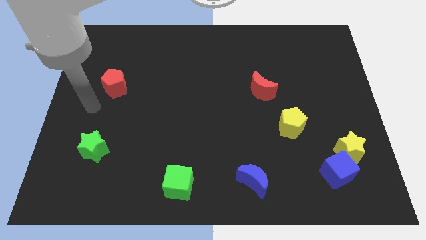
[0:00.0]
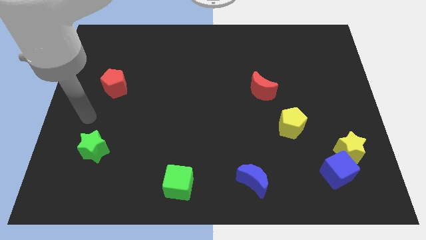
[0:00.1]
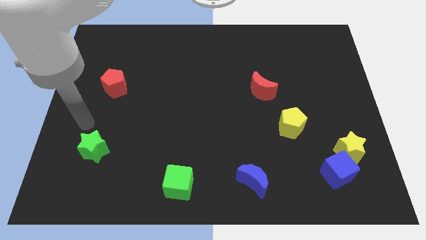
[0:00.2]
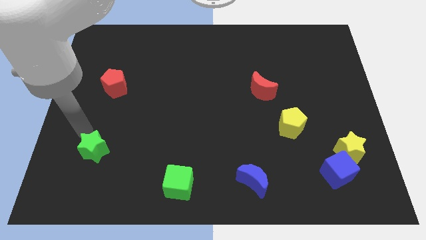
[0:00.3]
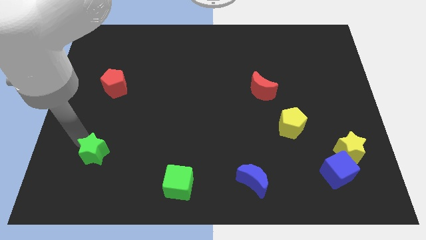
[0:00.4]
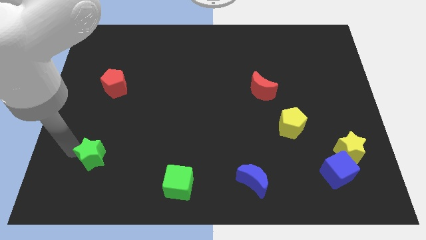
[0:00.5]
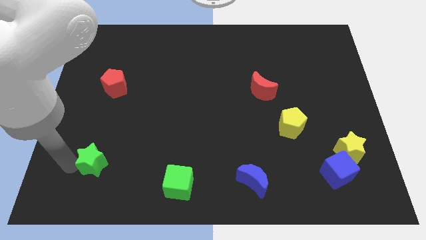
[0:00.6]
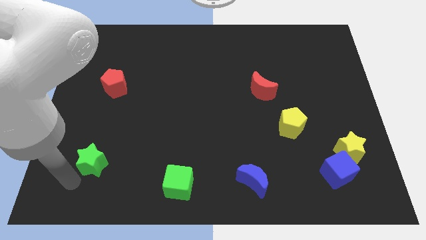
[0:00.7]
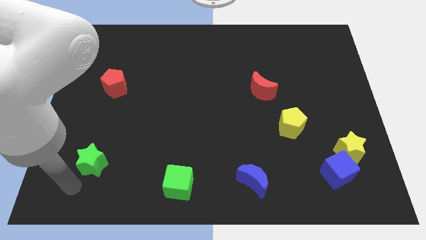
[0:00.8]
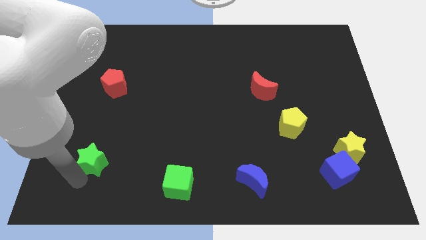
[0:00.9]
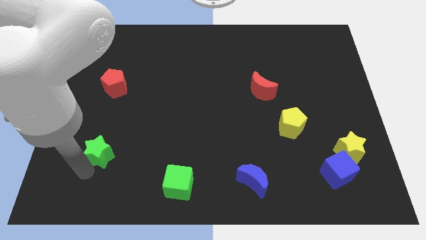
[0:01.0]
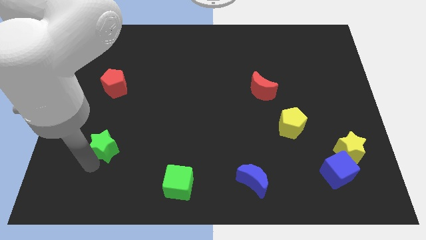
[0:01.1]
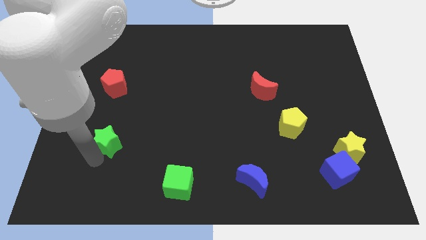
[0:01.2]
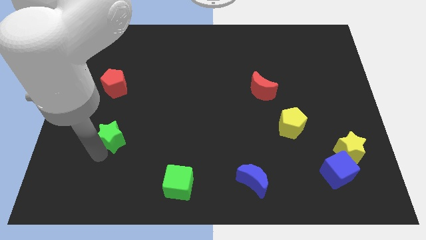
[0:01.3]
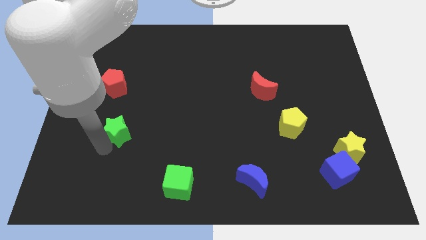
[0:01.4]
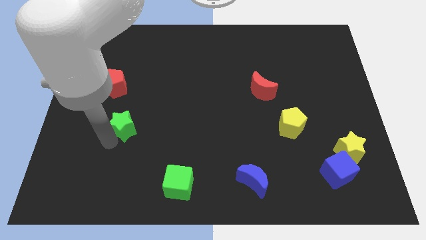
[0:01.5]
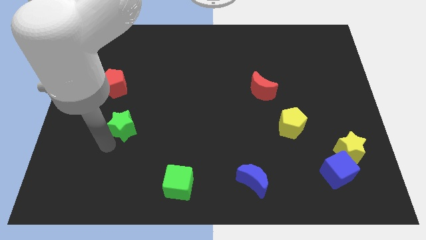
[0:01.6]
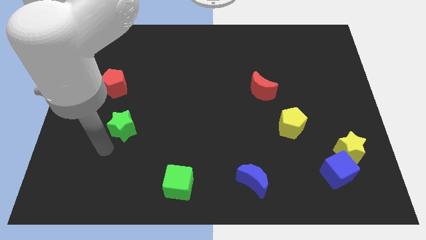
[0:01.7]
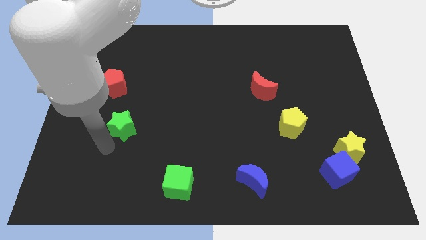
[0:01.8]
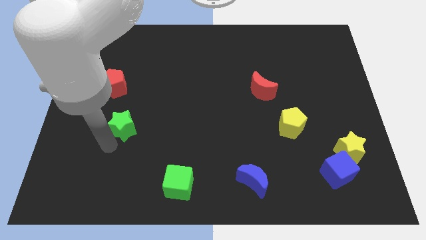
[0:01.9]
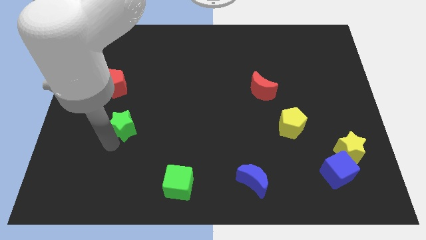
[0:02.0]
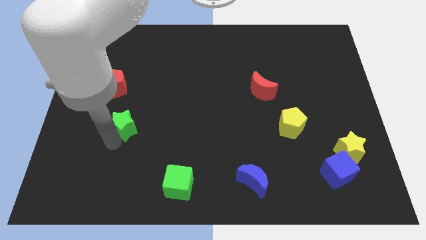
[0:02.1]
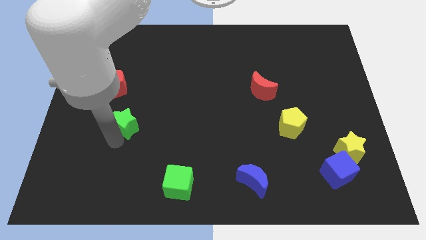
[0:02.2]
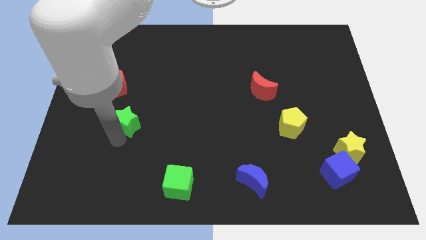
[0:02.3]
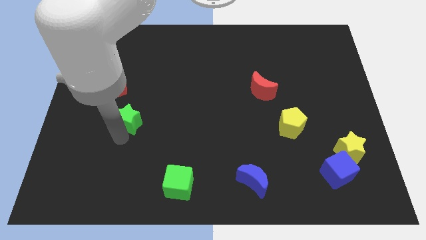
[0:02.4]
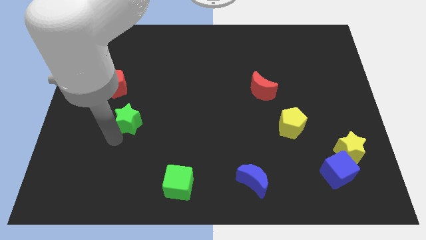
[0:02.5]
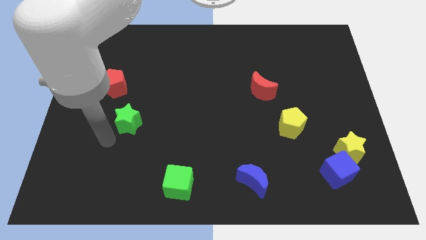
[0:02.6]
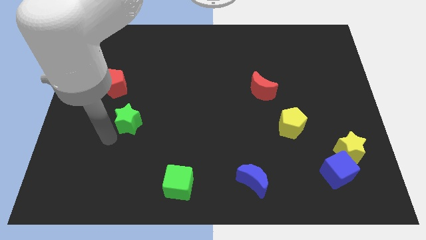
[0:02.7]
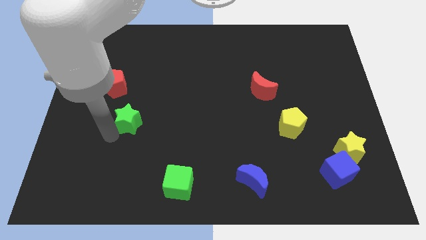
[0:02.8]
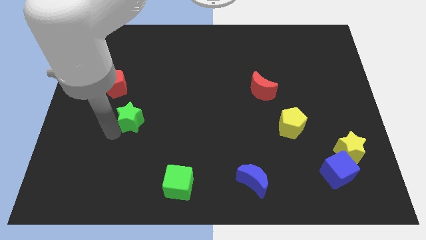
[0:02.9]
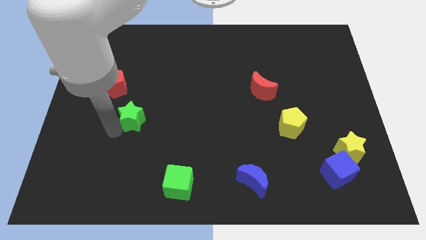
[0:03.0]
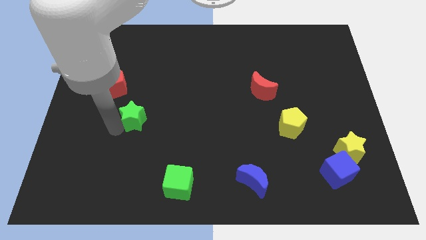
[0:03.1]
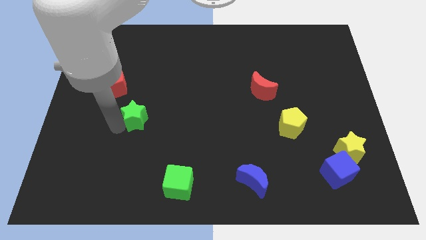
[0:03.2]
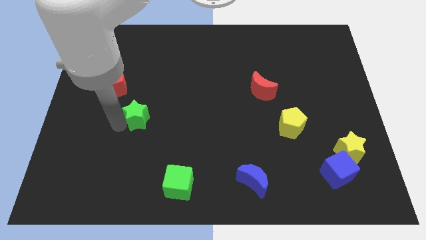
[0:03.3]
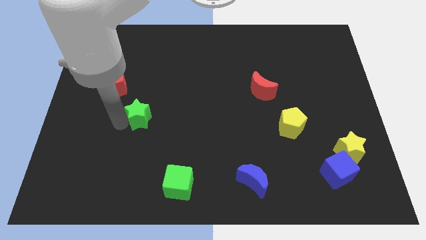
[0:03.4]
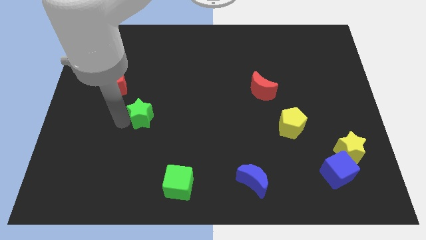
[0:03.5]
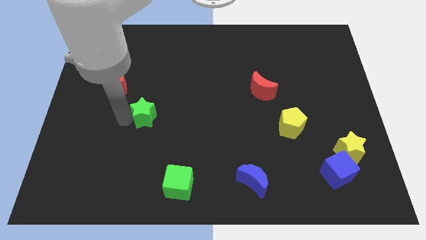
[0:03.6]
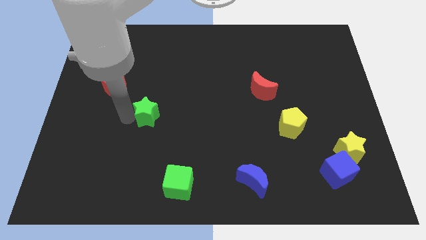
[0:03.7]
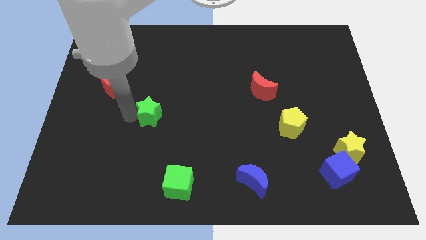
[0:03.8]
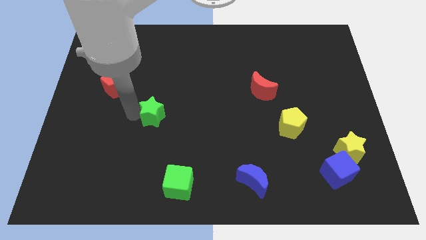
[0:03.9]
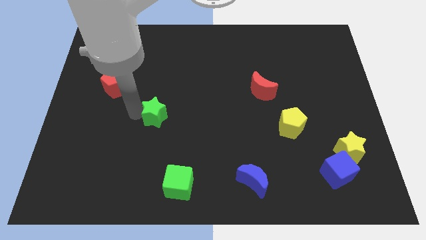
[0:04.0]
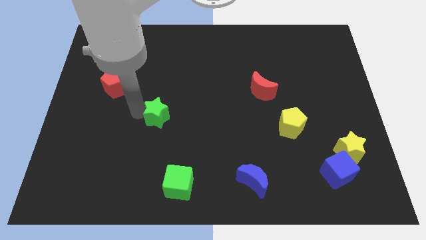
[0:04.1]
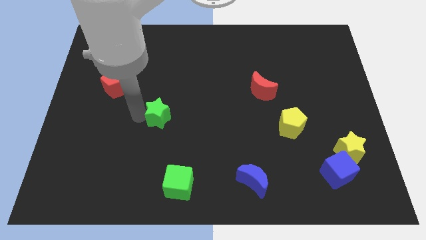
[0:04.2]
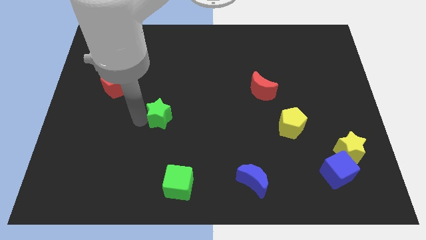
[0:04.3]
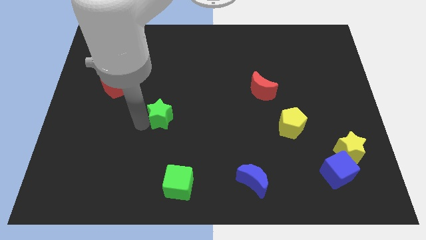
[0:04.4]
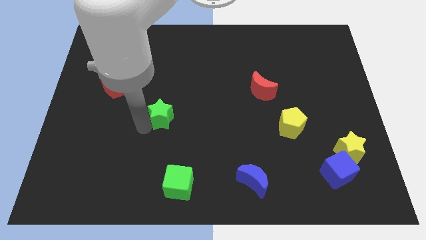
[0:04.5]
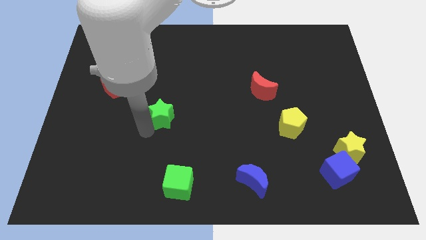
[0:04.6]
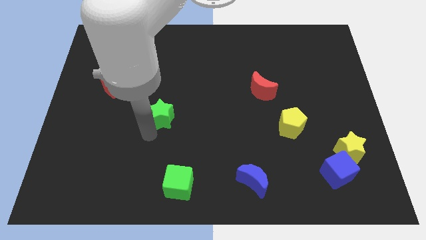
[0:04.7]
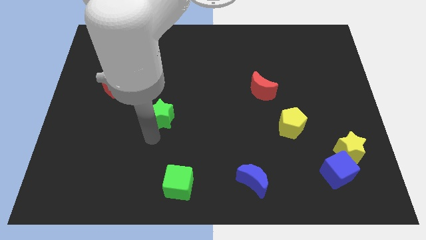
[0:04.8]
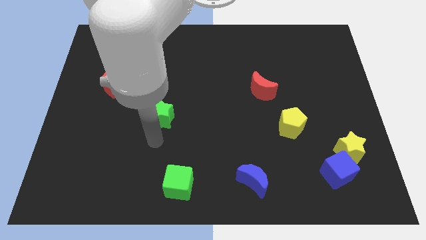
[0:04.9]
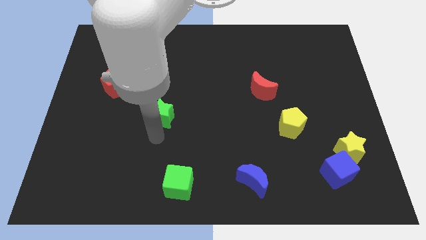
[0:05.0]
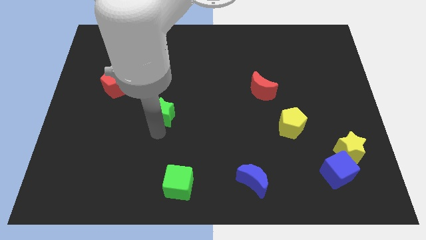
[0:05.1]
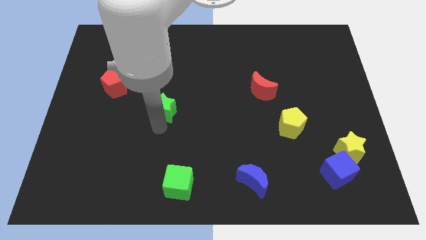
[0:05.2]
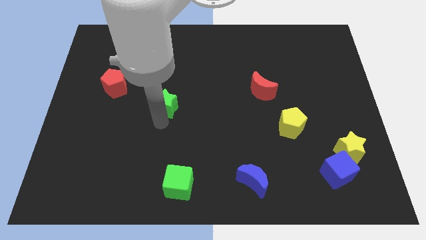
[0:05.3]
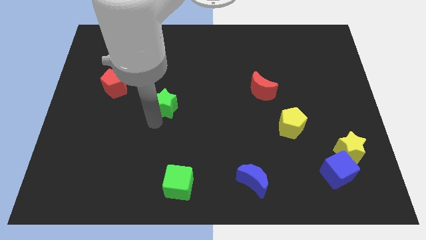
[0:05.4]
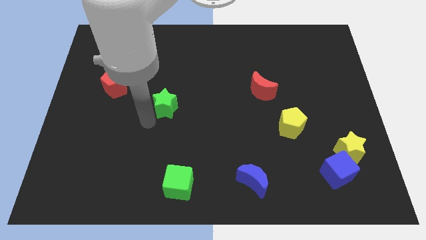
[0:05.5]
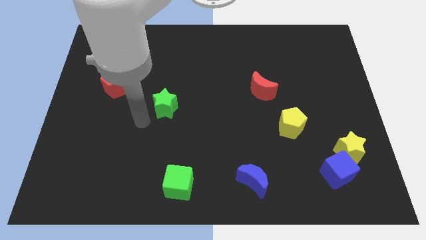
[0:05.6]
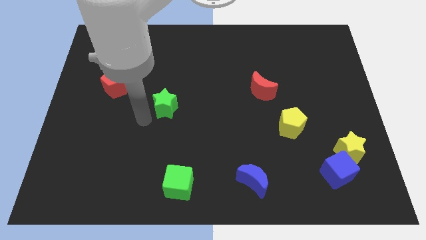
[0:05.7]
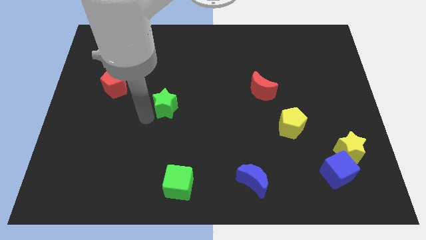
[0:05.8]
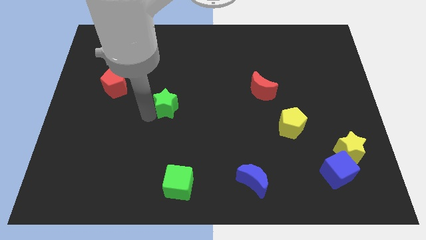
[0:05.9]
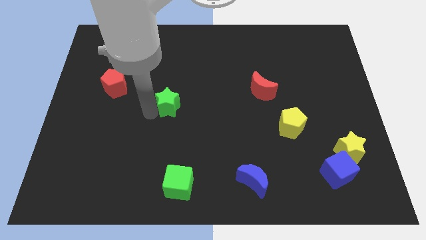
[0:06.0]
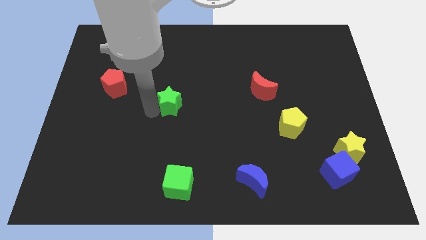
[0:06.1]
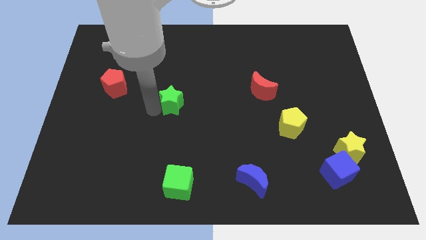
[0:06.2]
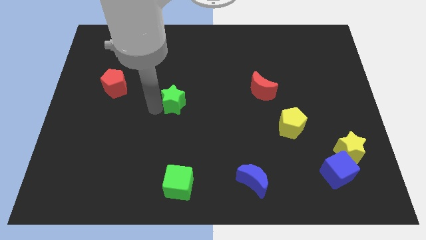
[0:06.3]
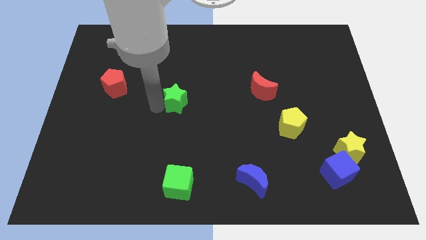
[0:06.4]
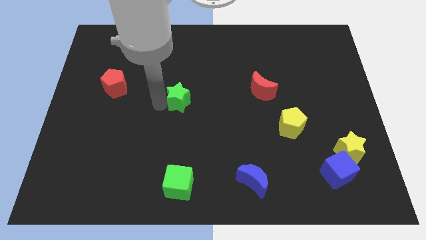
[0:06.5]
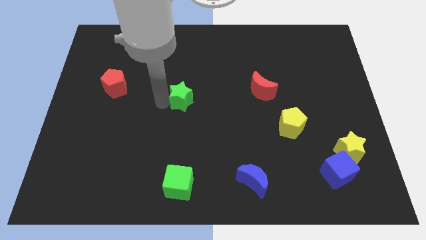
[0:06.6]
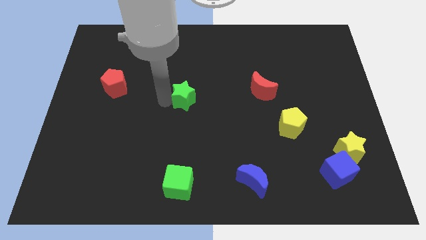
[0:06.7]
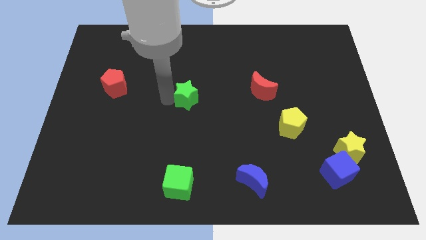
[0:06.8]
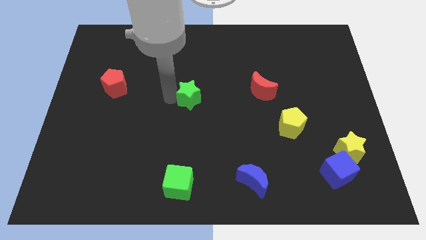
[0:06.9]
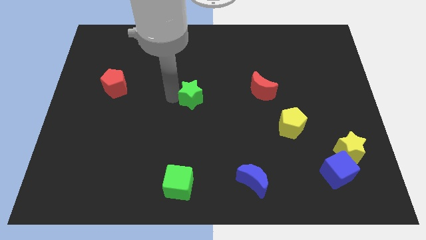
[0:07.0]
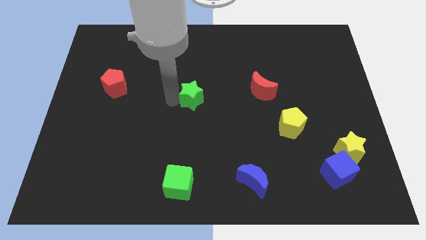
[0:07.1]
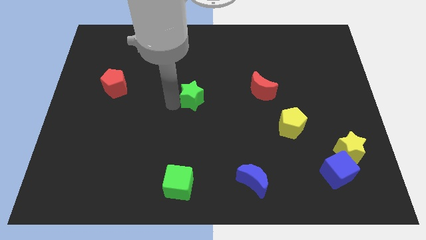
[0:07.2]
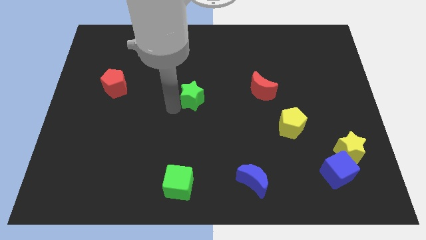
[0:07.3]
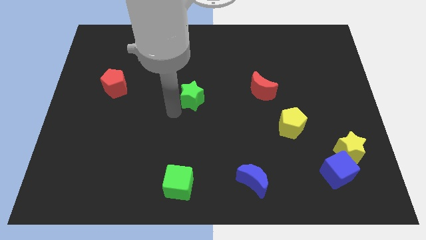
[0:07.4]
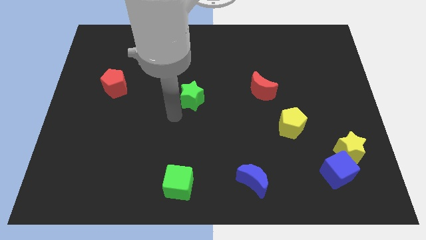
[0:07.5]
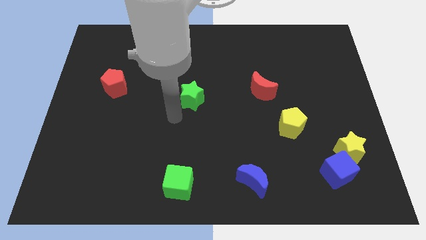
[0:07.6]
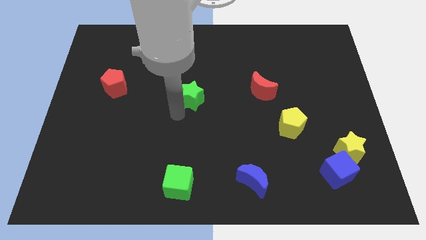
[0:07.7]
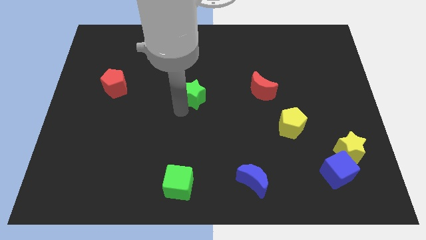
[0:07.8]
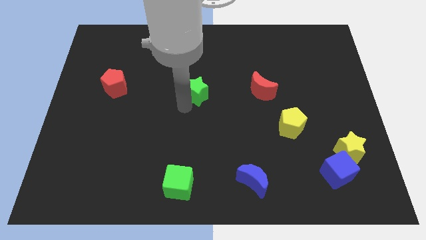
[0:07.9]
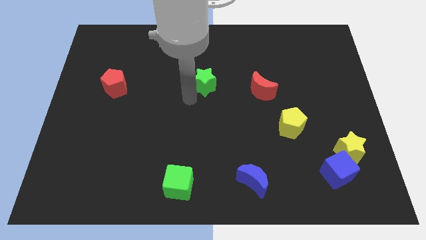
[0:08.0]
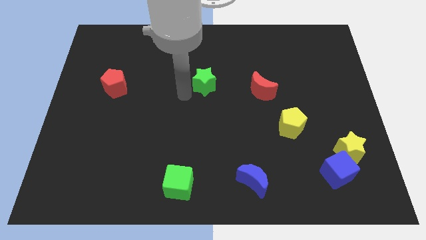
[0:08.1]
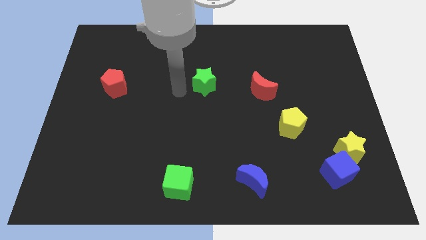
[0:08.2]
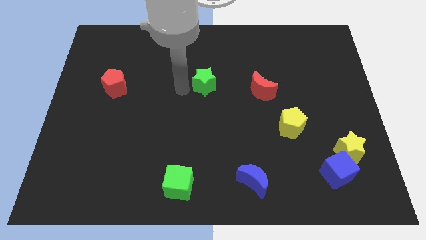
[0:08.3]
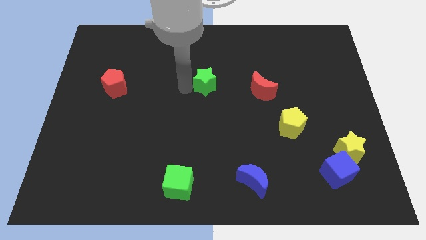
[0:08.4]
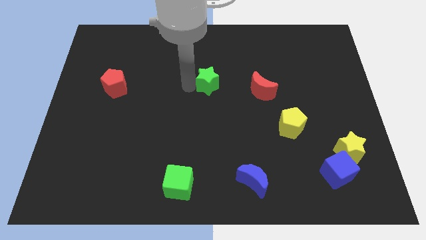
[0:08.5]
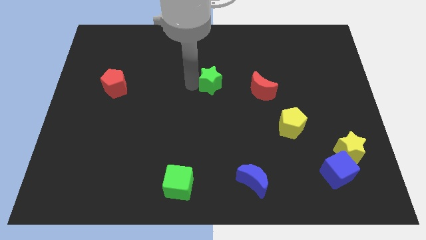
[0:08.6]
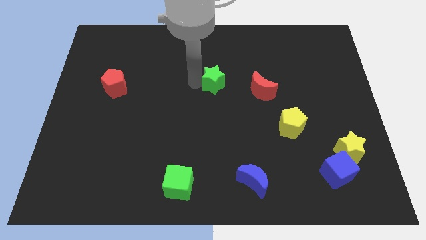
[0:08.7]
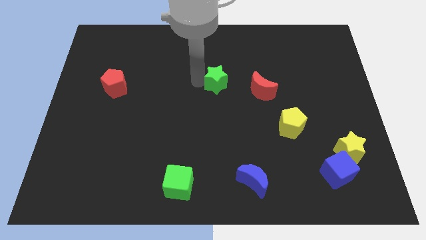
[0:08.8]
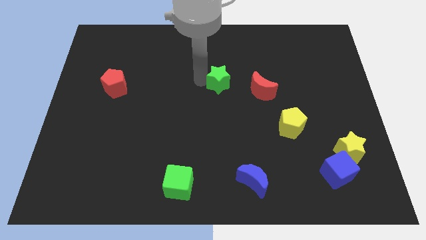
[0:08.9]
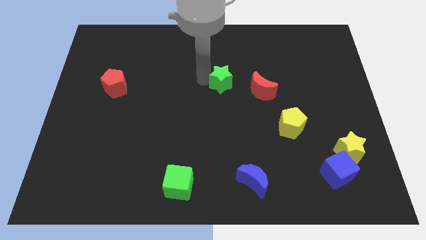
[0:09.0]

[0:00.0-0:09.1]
put the green star diagonally up and to the left of the red moon
